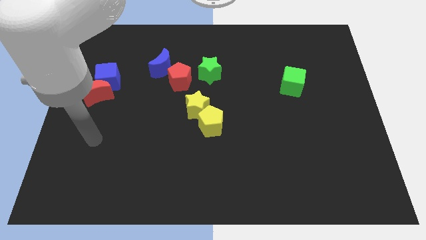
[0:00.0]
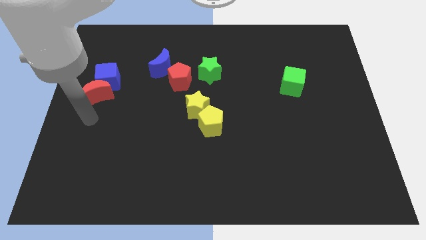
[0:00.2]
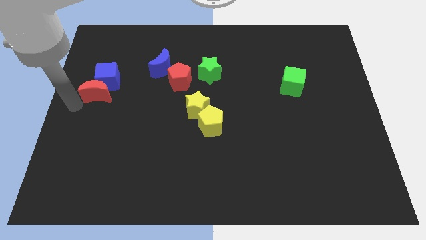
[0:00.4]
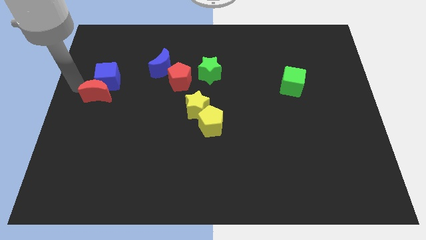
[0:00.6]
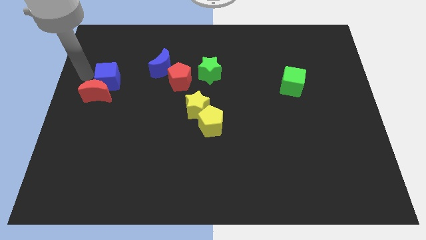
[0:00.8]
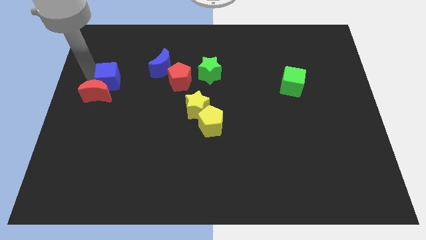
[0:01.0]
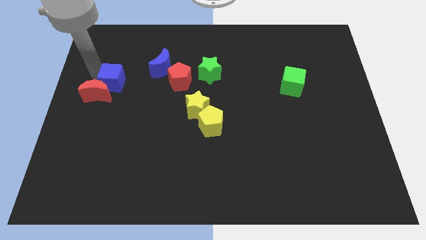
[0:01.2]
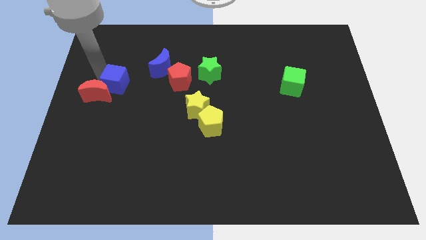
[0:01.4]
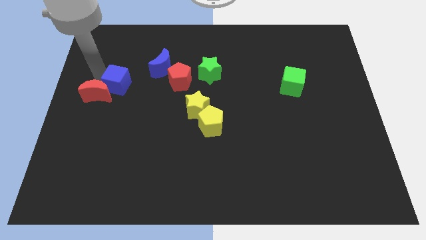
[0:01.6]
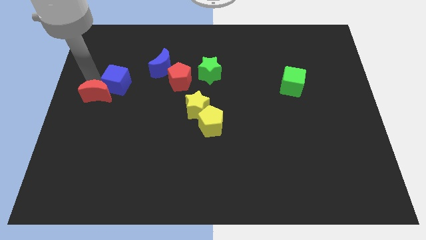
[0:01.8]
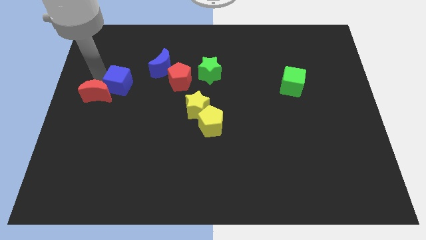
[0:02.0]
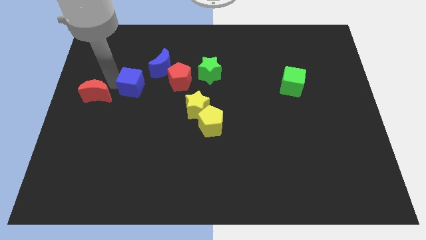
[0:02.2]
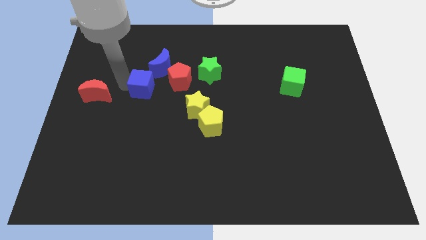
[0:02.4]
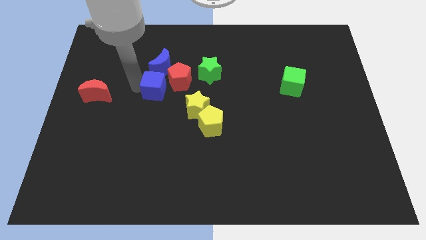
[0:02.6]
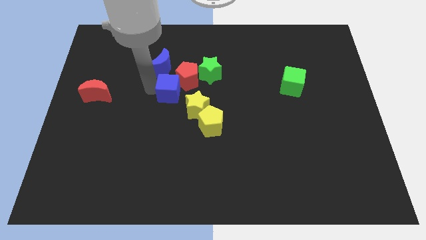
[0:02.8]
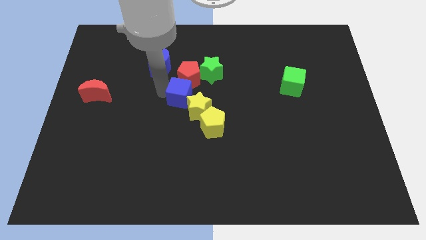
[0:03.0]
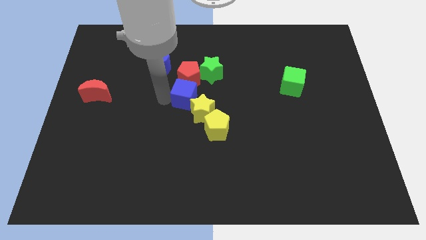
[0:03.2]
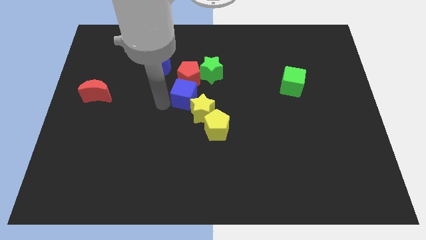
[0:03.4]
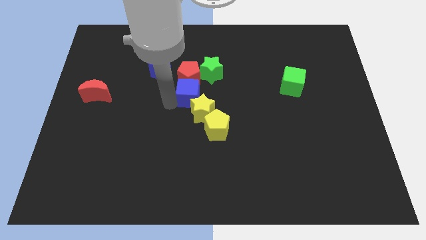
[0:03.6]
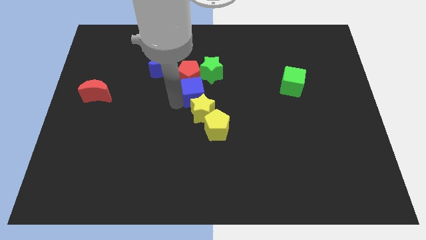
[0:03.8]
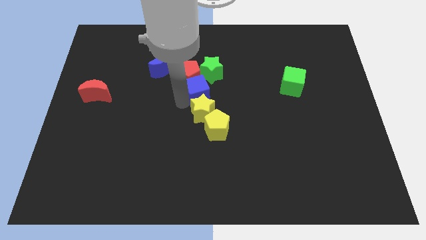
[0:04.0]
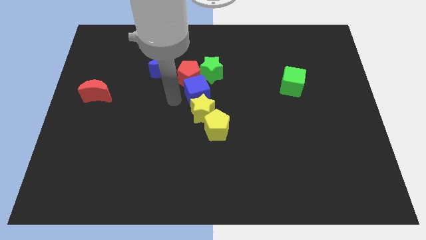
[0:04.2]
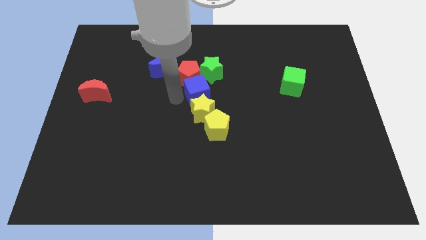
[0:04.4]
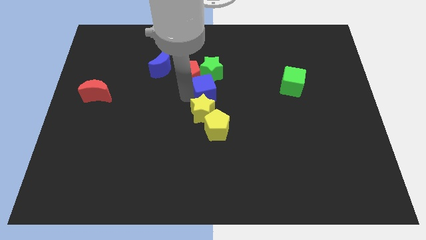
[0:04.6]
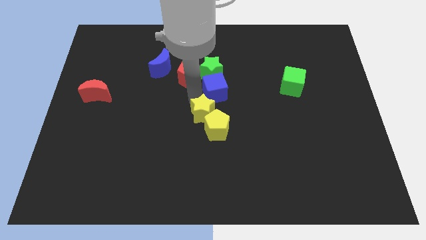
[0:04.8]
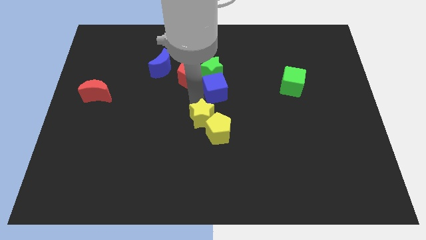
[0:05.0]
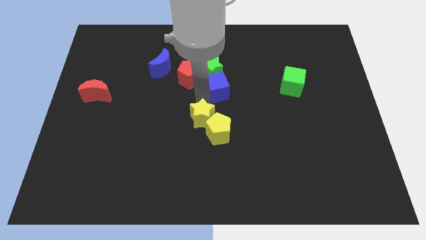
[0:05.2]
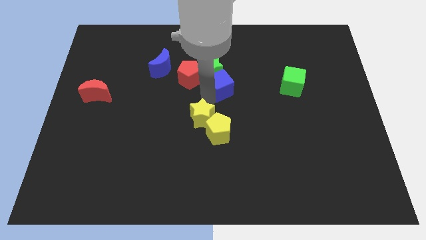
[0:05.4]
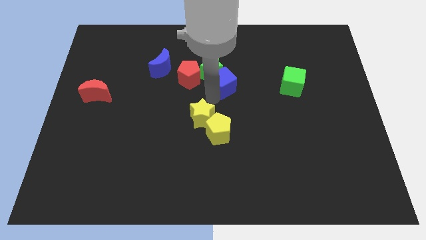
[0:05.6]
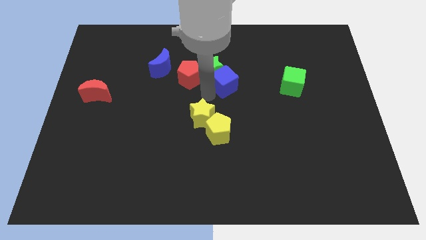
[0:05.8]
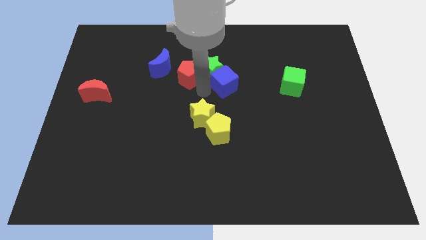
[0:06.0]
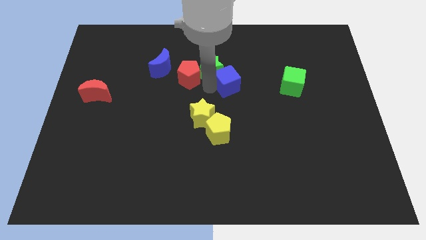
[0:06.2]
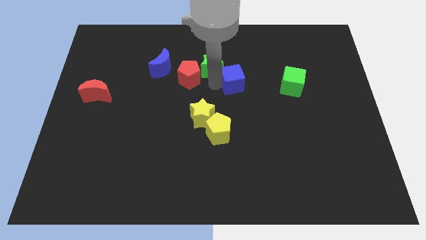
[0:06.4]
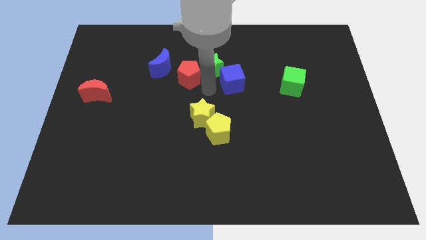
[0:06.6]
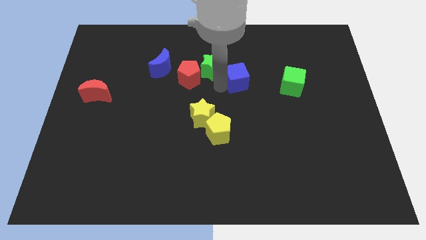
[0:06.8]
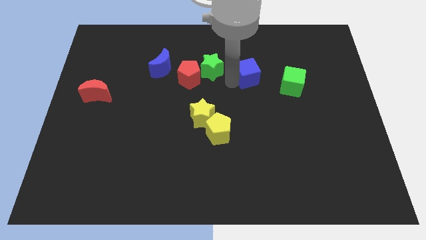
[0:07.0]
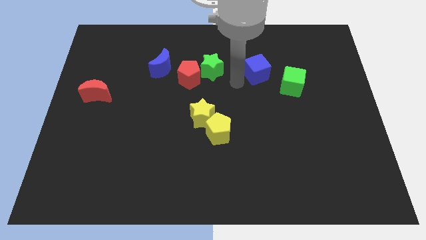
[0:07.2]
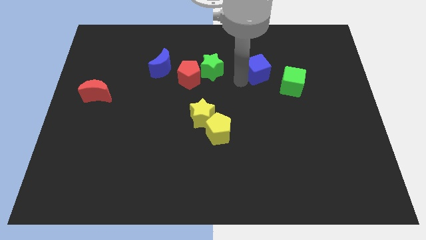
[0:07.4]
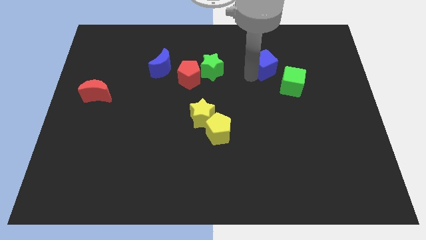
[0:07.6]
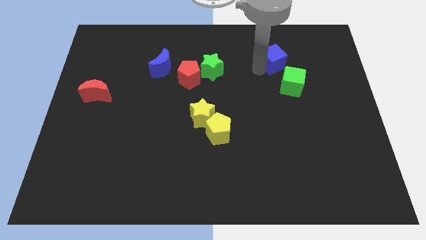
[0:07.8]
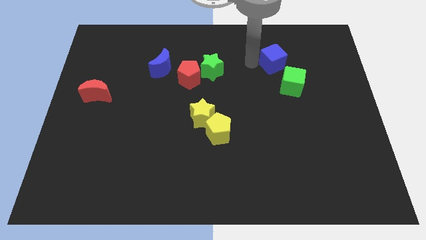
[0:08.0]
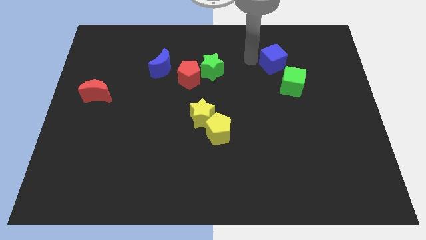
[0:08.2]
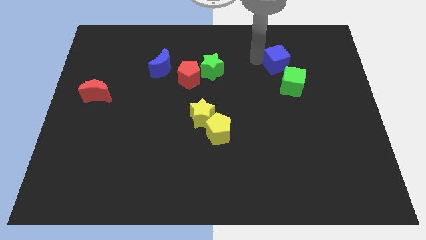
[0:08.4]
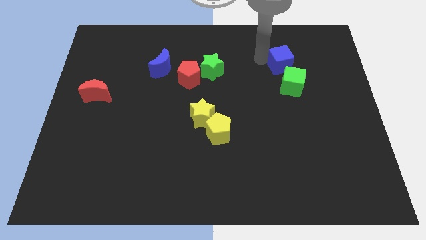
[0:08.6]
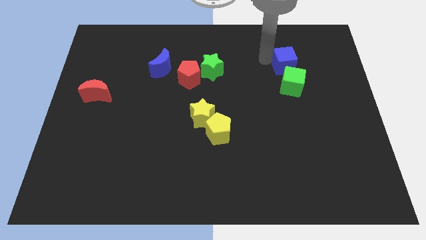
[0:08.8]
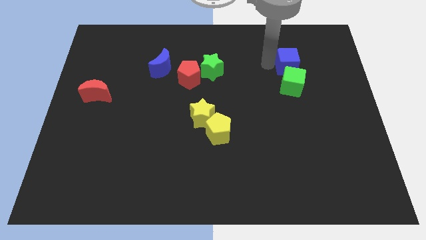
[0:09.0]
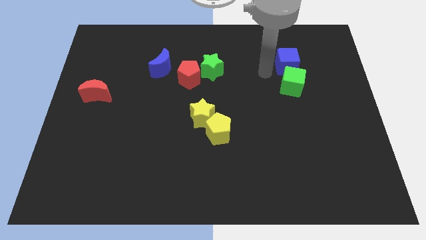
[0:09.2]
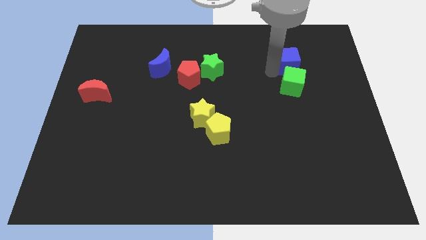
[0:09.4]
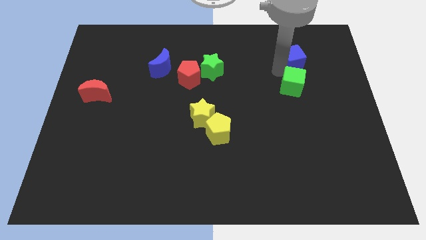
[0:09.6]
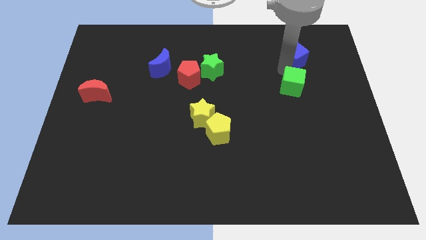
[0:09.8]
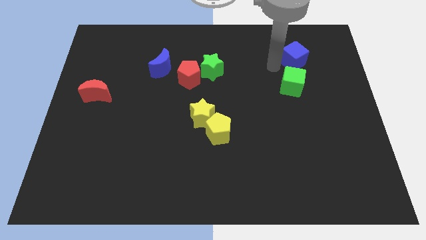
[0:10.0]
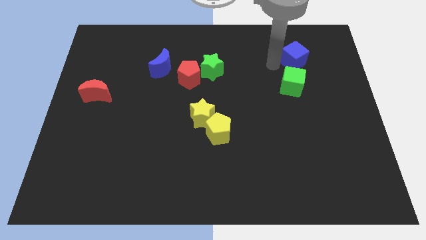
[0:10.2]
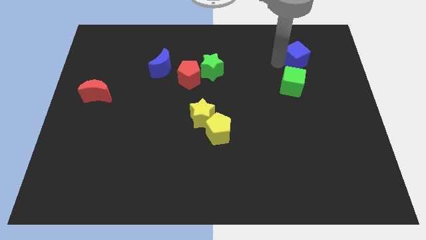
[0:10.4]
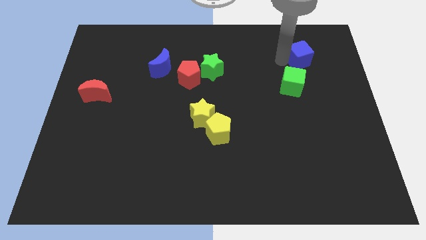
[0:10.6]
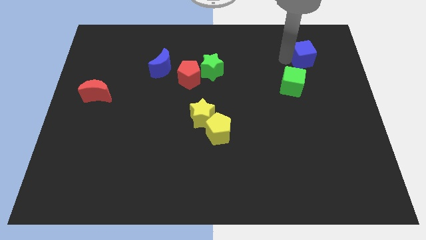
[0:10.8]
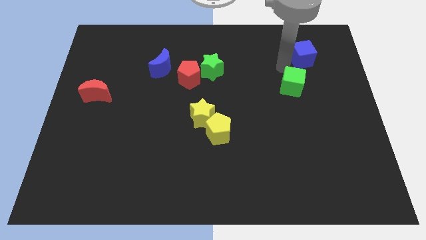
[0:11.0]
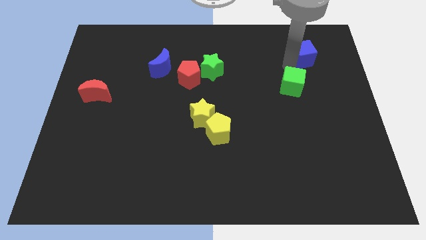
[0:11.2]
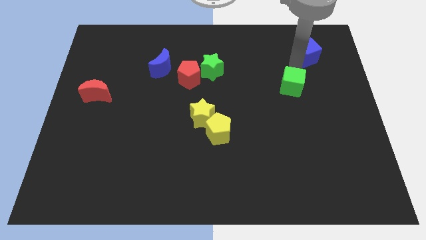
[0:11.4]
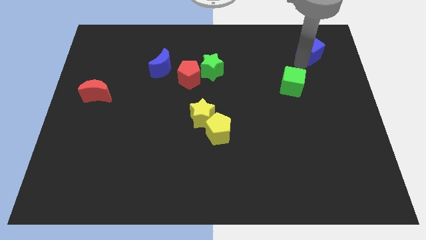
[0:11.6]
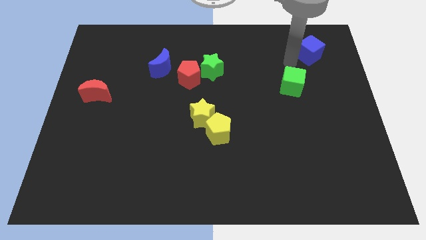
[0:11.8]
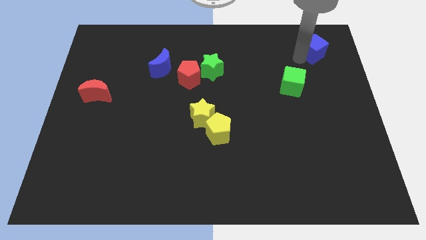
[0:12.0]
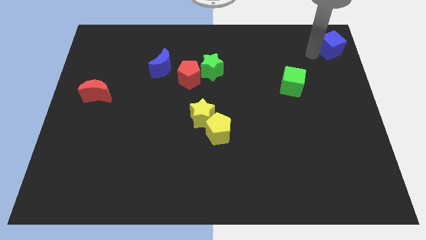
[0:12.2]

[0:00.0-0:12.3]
put the blue cube to the top right of the board

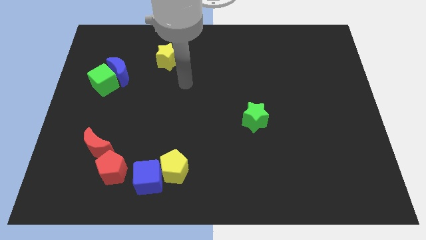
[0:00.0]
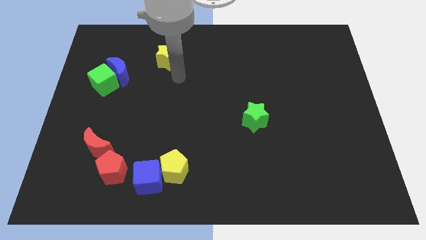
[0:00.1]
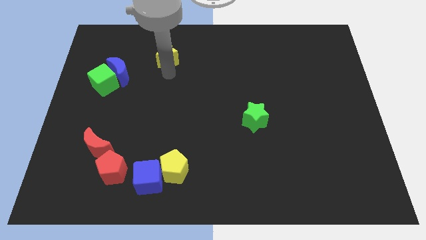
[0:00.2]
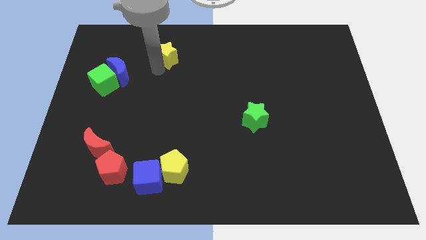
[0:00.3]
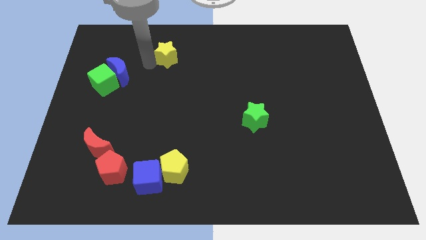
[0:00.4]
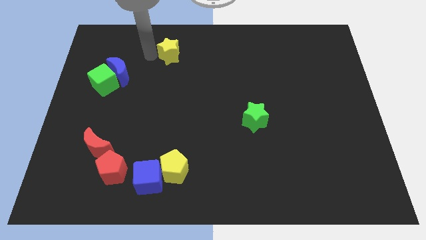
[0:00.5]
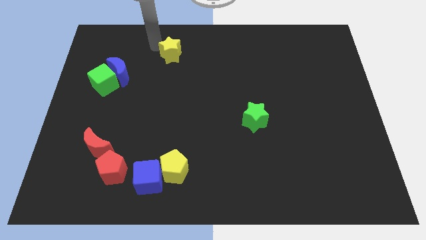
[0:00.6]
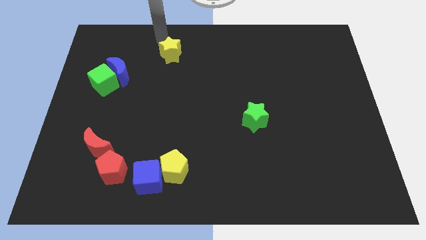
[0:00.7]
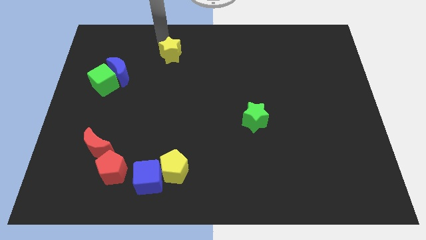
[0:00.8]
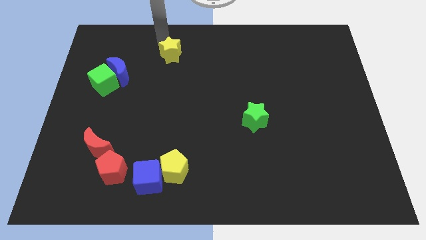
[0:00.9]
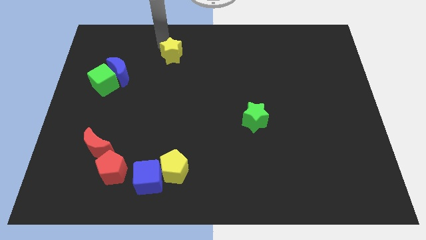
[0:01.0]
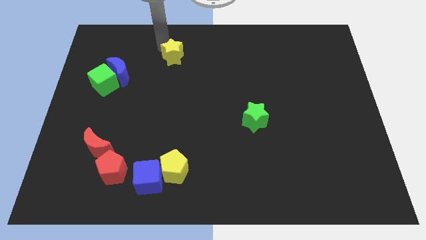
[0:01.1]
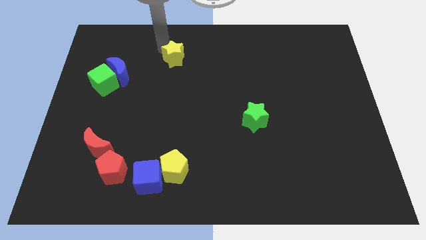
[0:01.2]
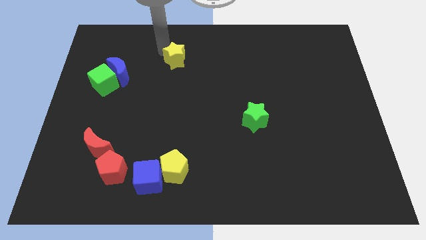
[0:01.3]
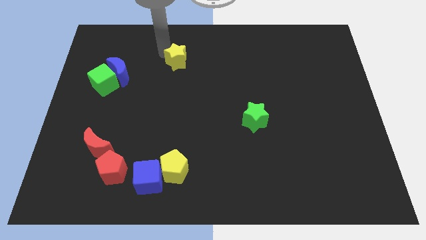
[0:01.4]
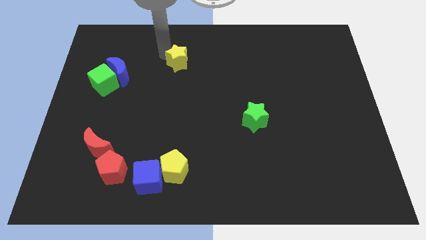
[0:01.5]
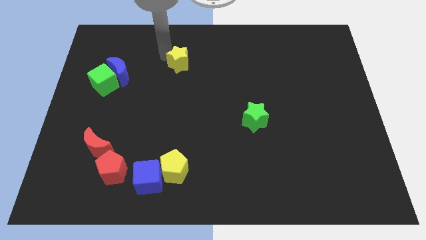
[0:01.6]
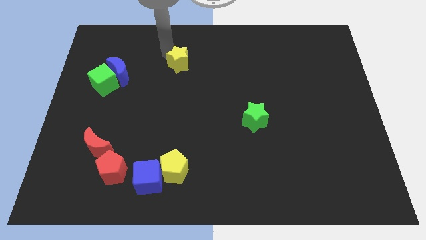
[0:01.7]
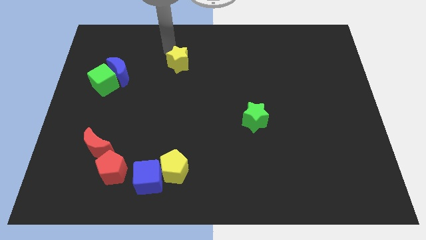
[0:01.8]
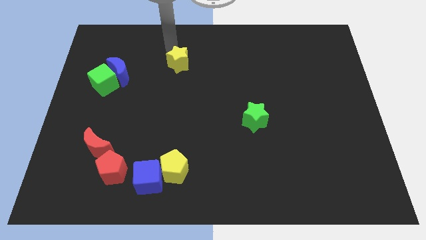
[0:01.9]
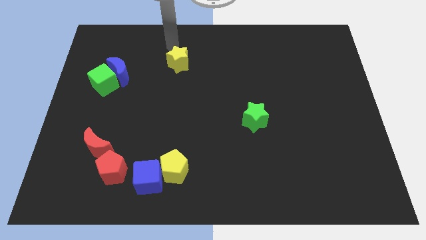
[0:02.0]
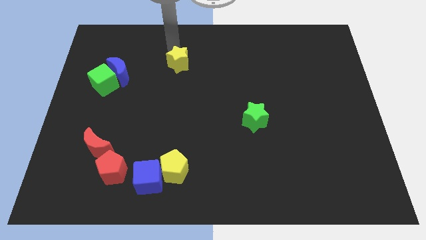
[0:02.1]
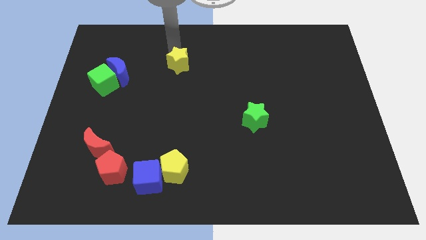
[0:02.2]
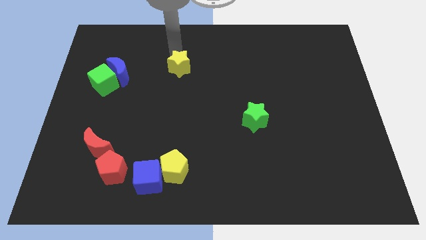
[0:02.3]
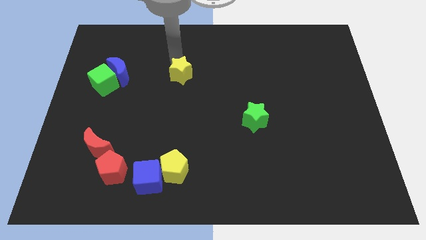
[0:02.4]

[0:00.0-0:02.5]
push the yellow star to the center
